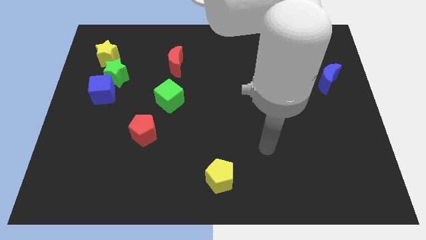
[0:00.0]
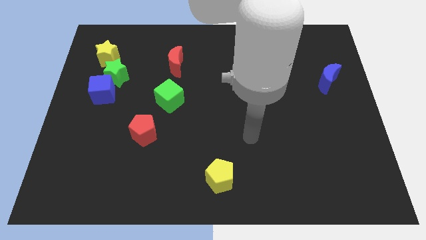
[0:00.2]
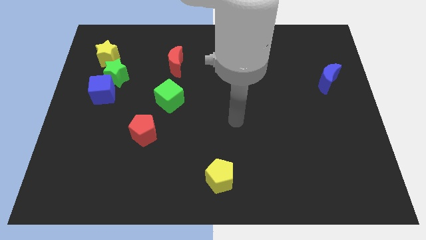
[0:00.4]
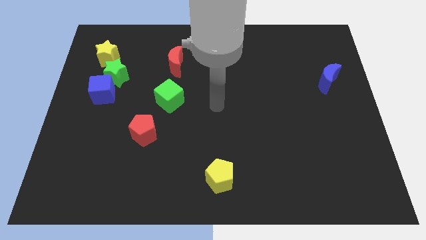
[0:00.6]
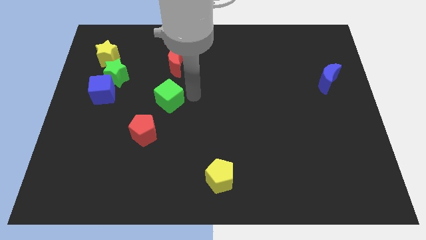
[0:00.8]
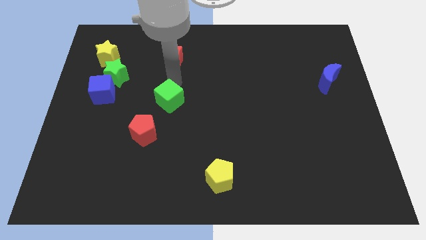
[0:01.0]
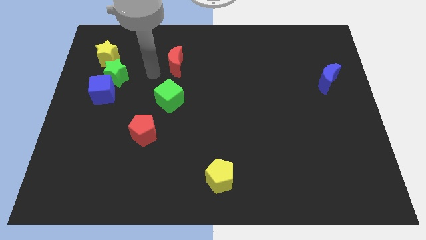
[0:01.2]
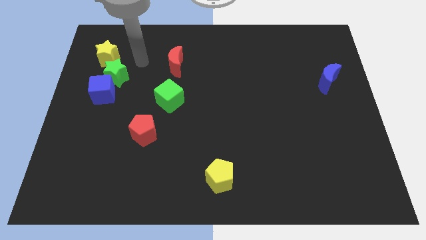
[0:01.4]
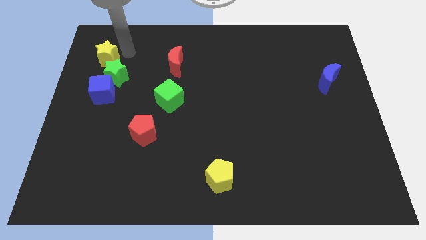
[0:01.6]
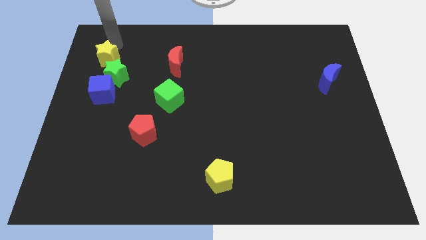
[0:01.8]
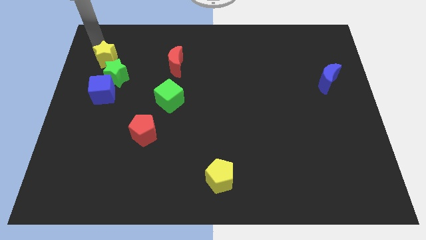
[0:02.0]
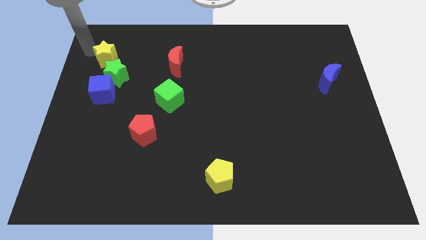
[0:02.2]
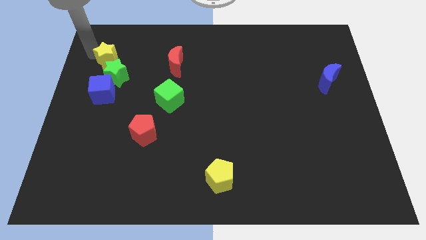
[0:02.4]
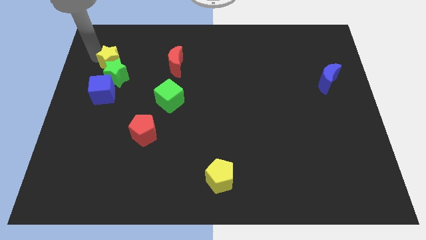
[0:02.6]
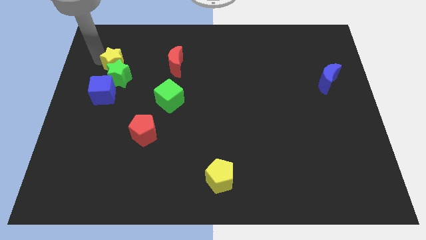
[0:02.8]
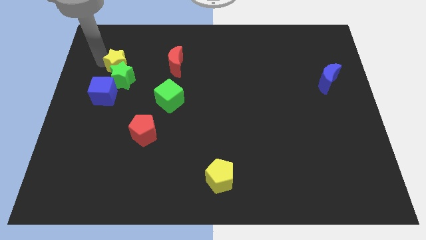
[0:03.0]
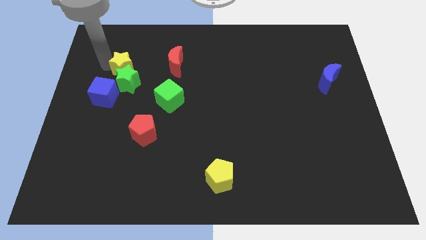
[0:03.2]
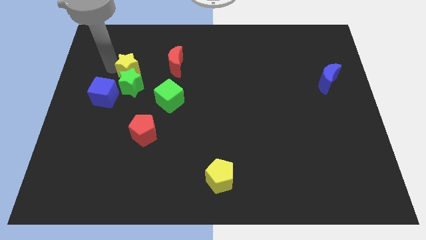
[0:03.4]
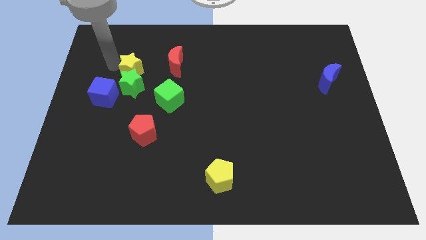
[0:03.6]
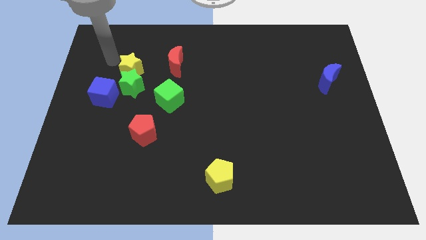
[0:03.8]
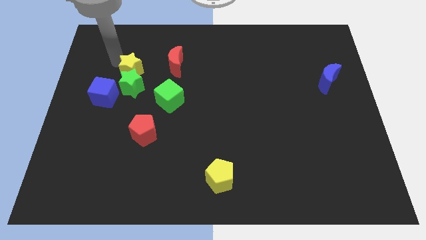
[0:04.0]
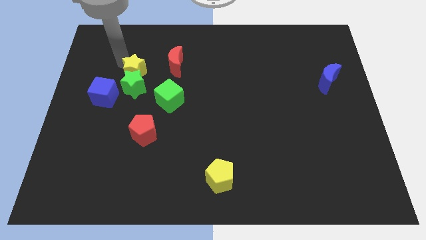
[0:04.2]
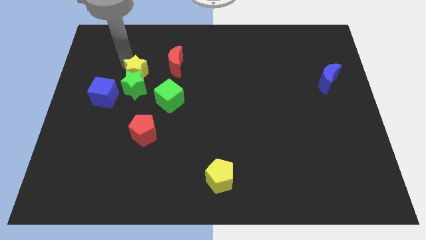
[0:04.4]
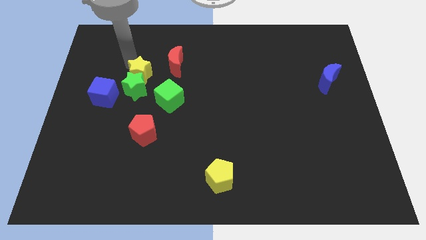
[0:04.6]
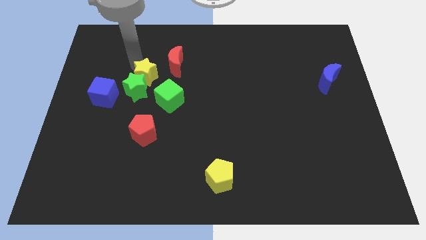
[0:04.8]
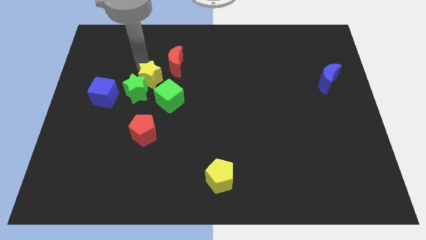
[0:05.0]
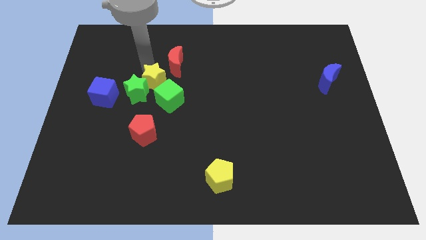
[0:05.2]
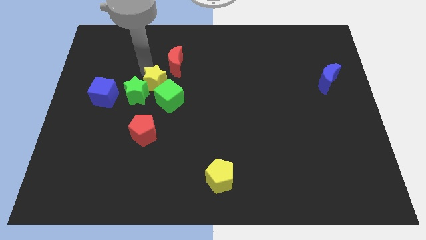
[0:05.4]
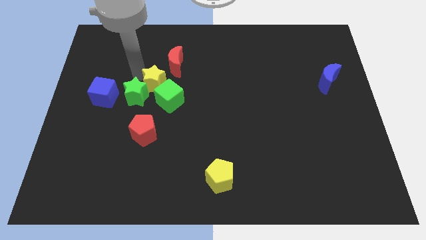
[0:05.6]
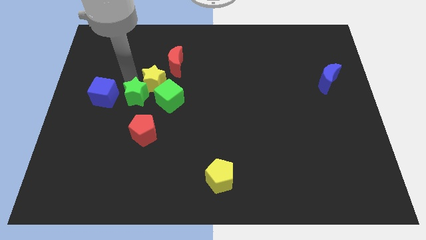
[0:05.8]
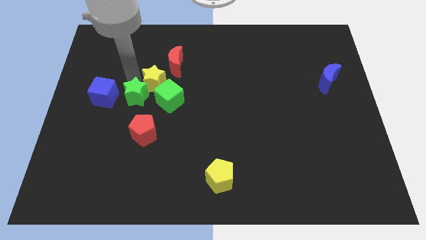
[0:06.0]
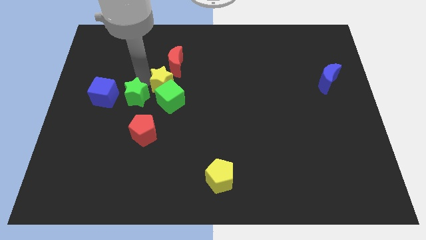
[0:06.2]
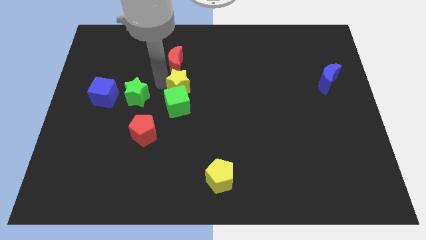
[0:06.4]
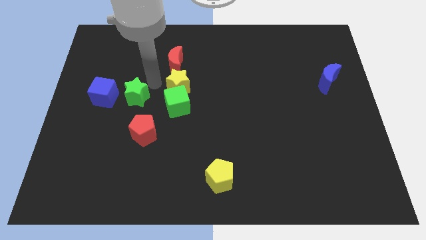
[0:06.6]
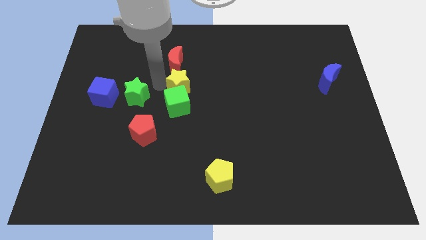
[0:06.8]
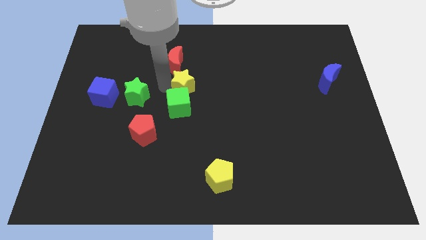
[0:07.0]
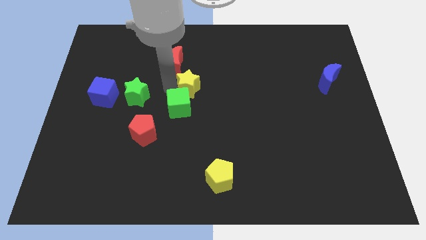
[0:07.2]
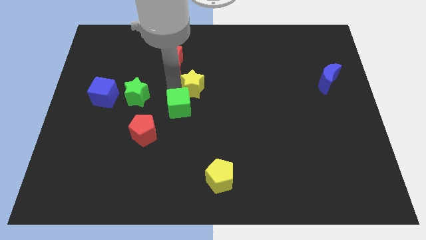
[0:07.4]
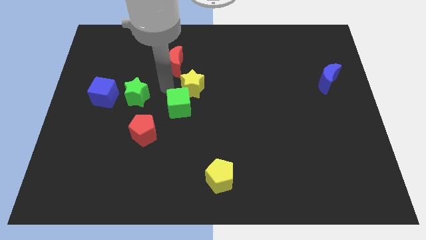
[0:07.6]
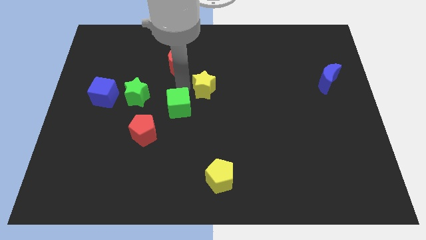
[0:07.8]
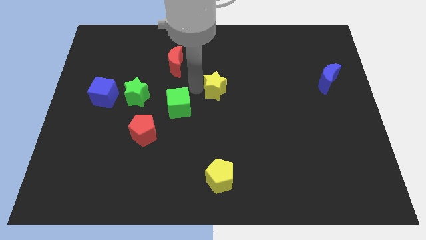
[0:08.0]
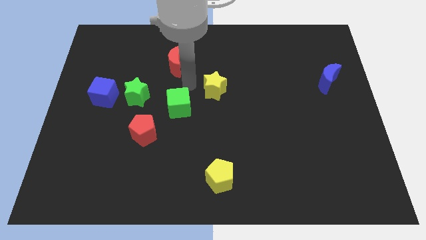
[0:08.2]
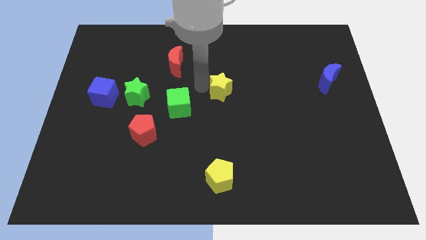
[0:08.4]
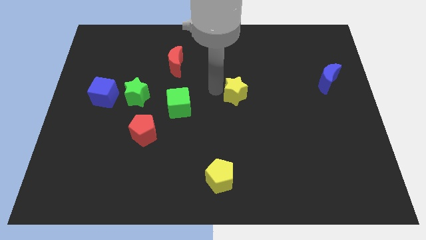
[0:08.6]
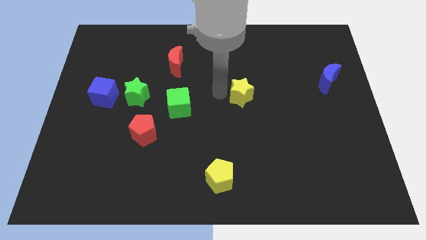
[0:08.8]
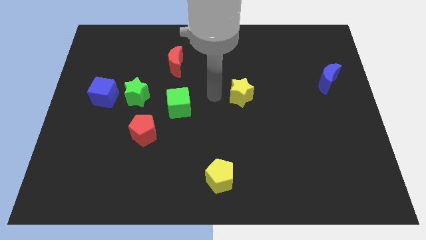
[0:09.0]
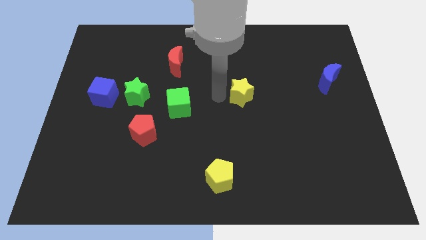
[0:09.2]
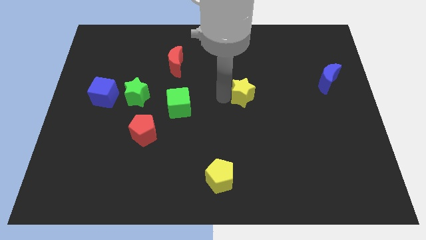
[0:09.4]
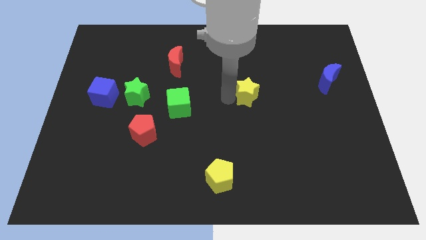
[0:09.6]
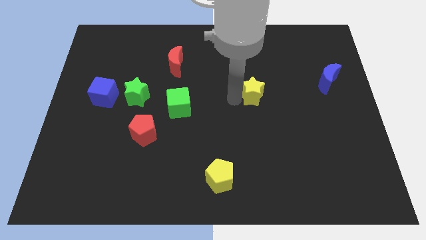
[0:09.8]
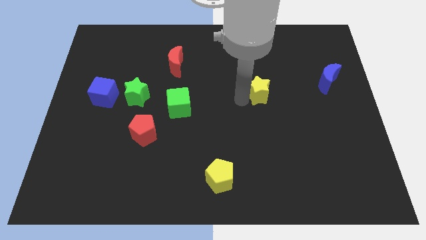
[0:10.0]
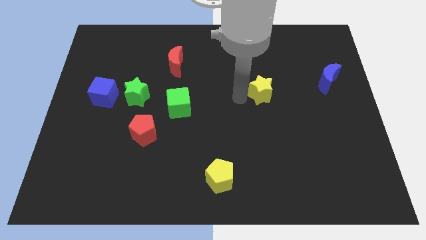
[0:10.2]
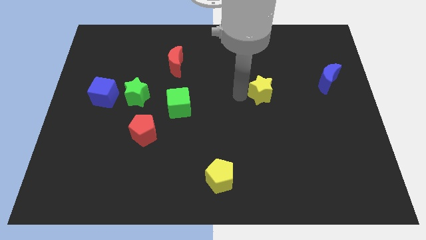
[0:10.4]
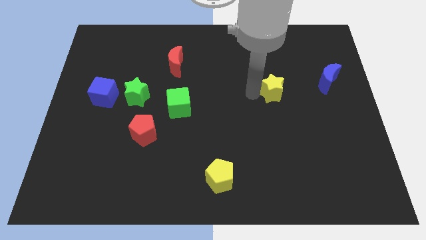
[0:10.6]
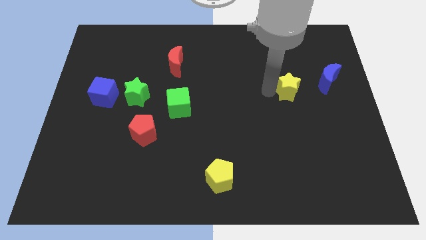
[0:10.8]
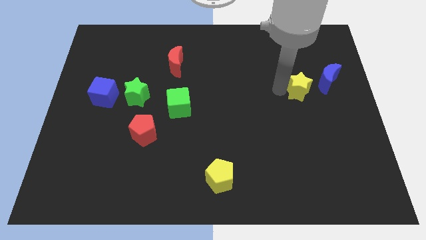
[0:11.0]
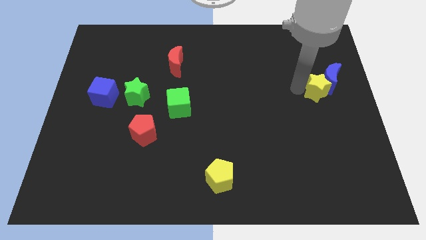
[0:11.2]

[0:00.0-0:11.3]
move the yellow star to the center right

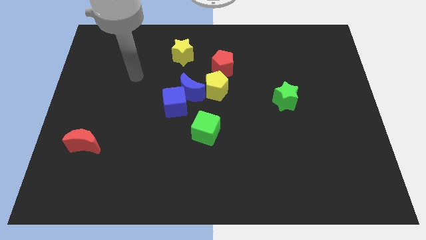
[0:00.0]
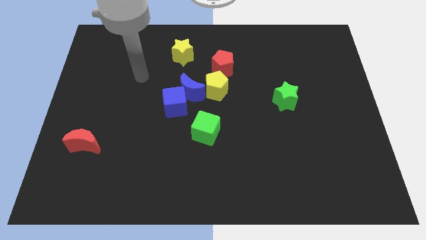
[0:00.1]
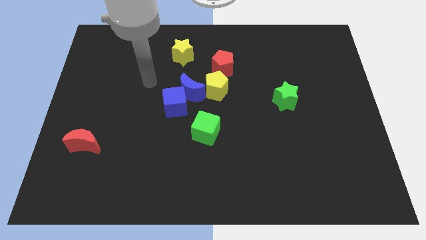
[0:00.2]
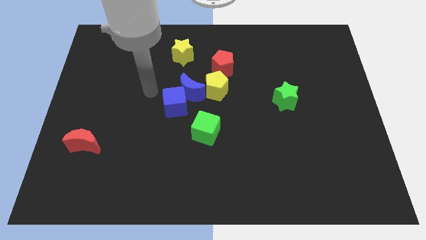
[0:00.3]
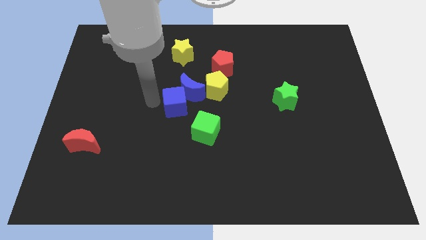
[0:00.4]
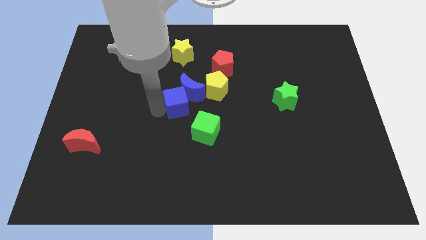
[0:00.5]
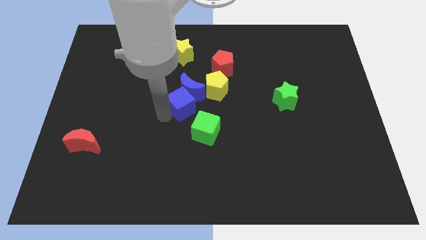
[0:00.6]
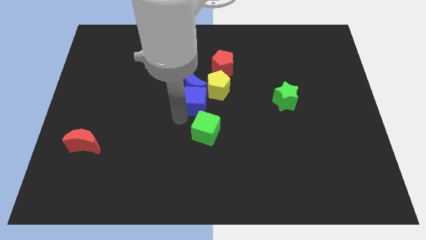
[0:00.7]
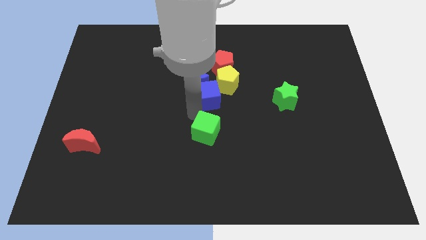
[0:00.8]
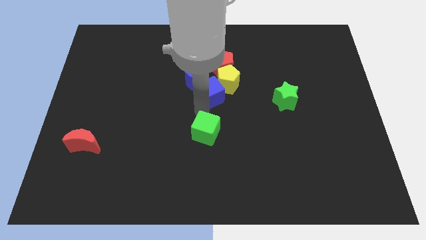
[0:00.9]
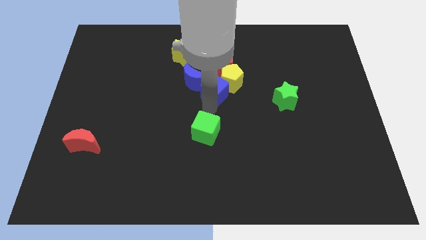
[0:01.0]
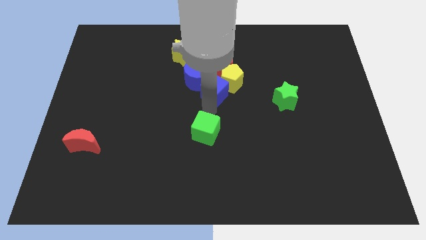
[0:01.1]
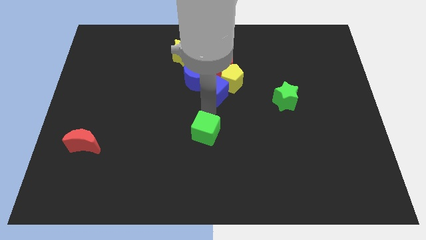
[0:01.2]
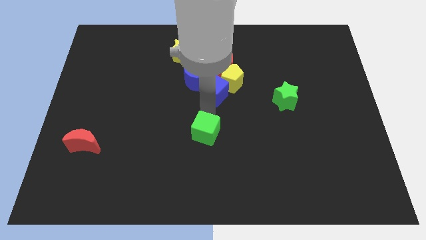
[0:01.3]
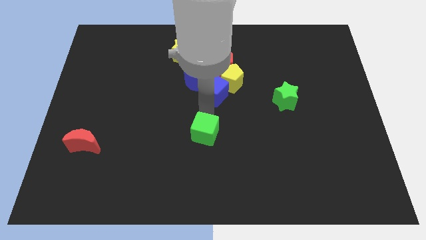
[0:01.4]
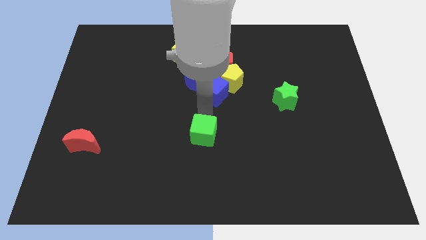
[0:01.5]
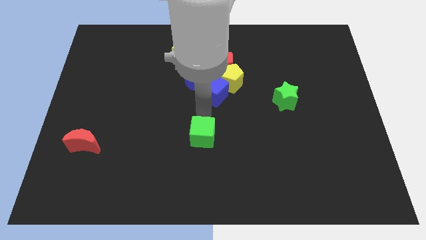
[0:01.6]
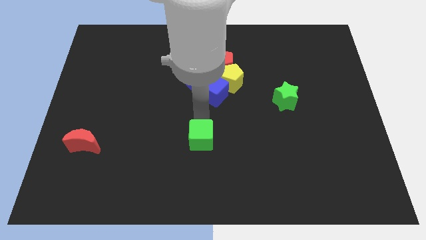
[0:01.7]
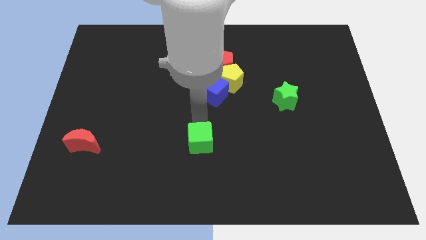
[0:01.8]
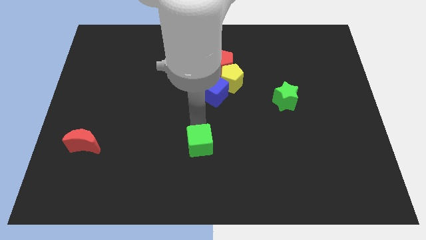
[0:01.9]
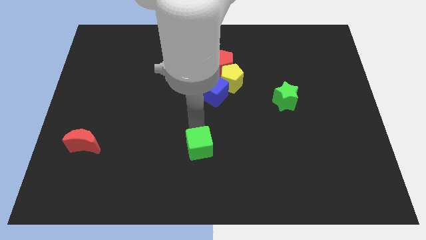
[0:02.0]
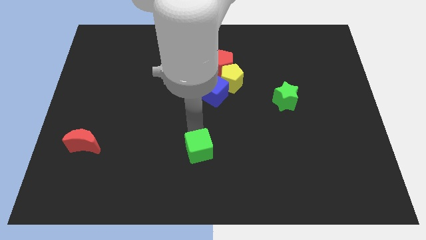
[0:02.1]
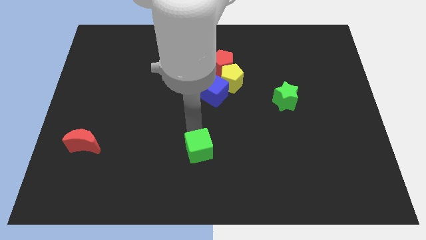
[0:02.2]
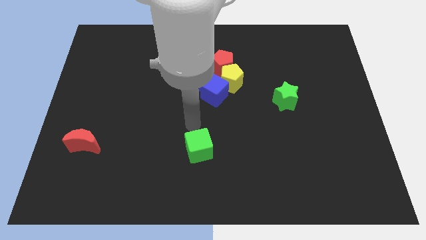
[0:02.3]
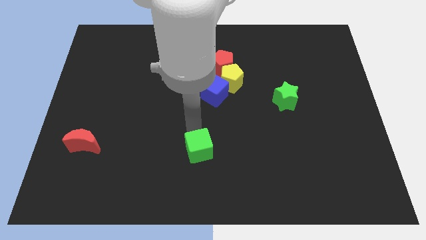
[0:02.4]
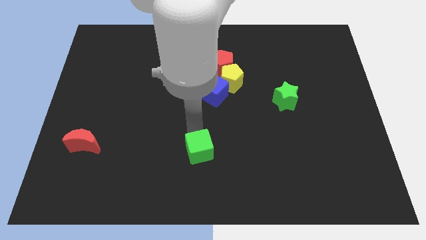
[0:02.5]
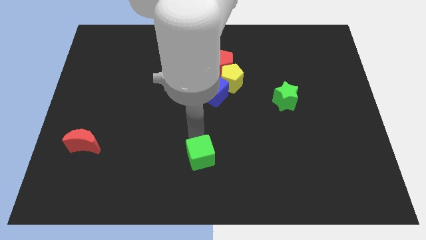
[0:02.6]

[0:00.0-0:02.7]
put the green cube to the bottom side
